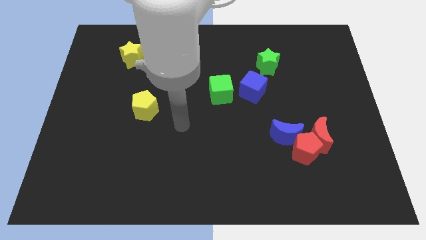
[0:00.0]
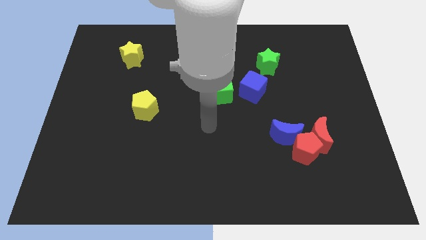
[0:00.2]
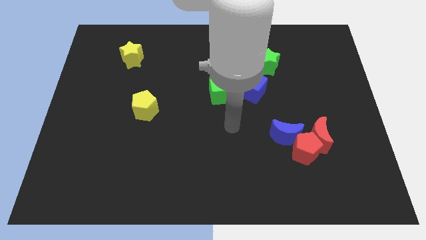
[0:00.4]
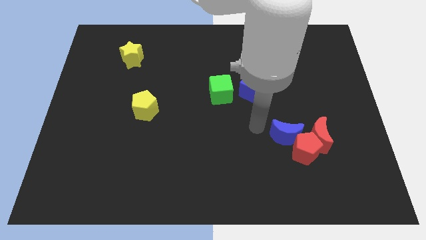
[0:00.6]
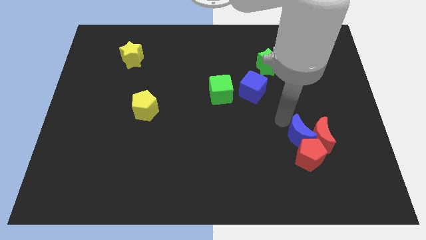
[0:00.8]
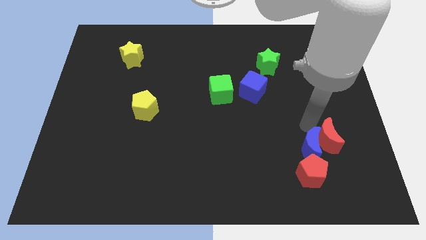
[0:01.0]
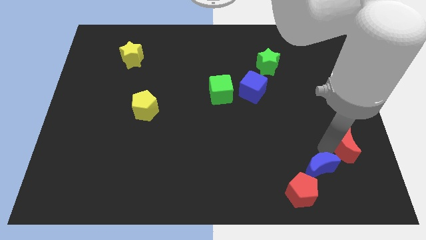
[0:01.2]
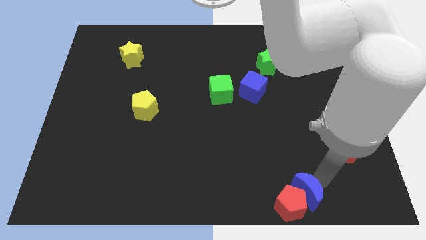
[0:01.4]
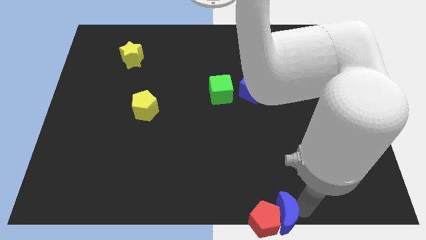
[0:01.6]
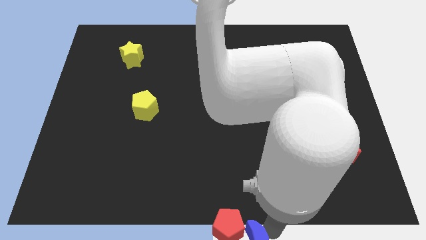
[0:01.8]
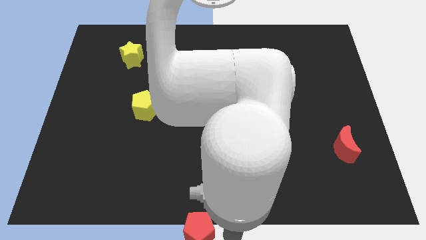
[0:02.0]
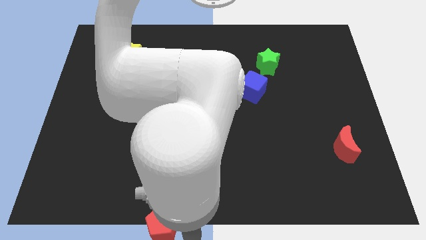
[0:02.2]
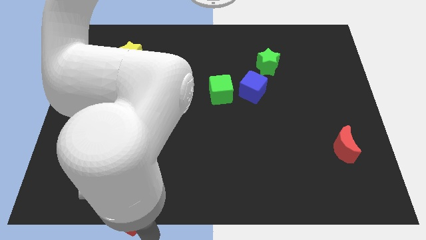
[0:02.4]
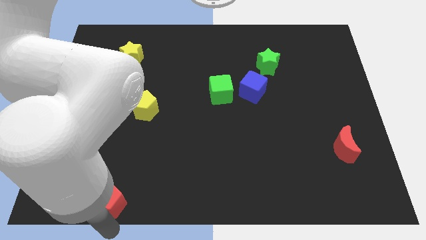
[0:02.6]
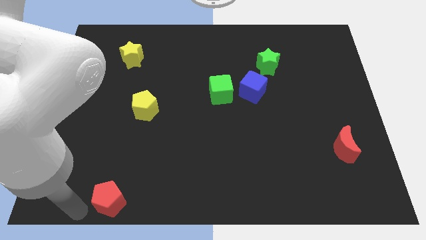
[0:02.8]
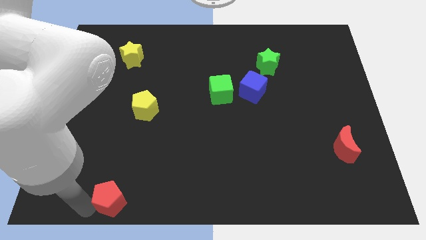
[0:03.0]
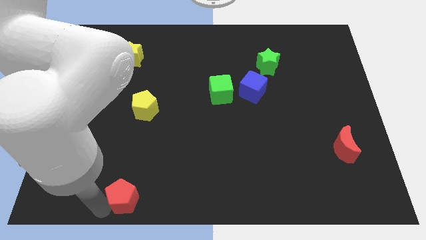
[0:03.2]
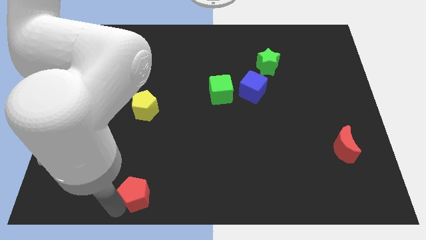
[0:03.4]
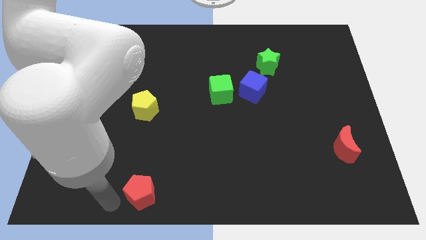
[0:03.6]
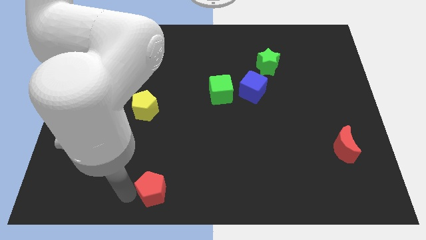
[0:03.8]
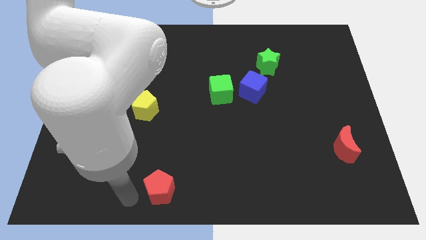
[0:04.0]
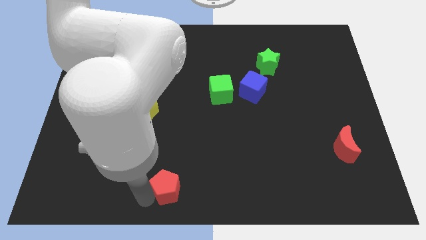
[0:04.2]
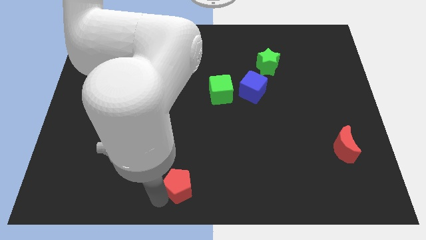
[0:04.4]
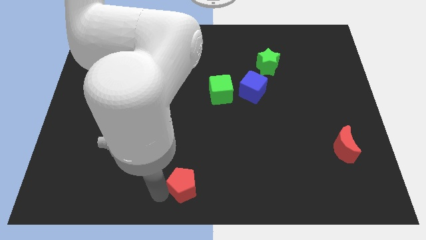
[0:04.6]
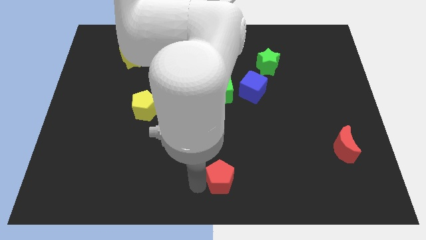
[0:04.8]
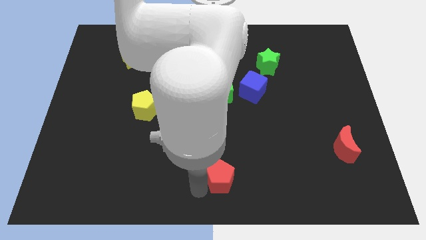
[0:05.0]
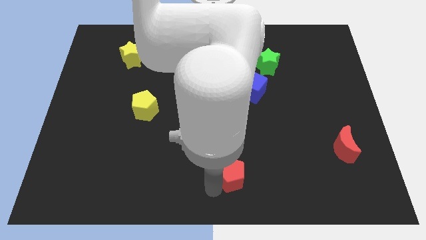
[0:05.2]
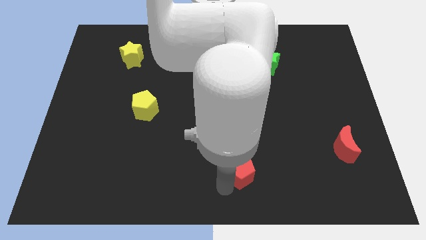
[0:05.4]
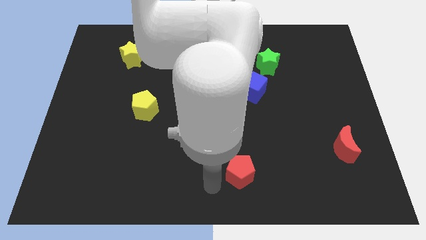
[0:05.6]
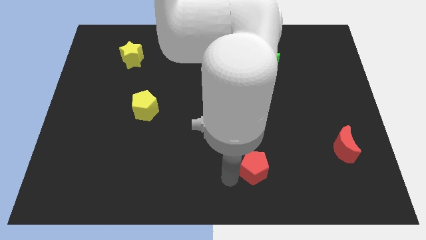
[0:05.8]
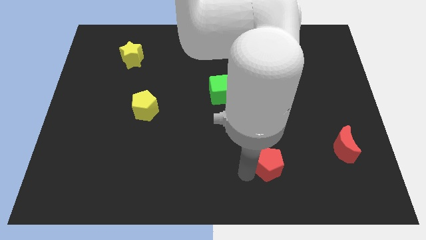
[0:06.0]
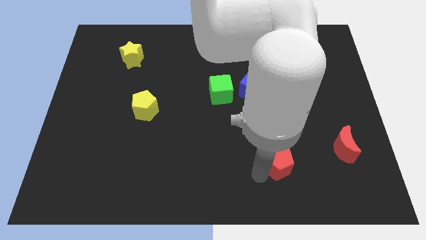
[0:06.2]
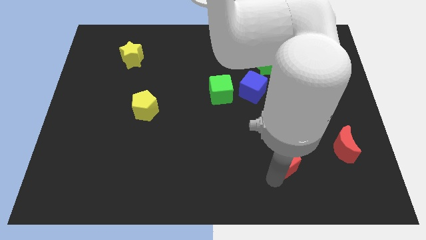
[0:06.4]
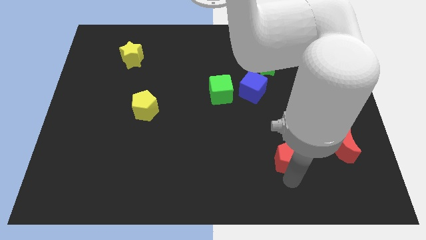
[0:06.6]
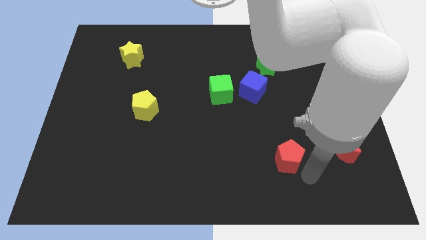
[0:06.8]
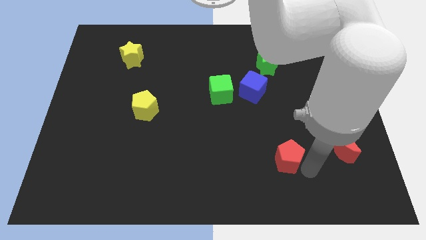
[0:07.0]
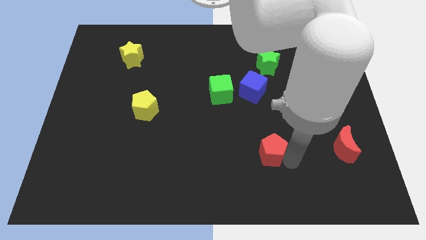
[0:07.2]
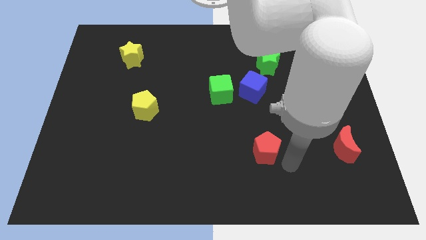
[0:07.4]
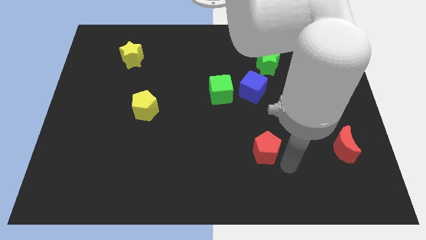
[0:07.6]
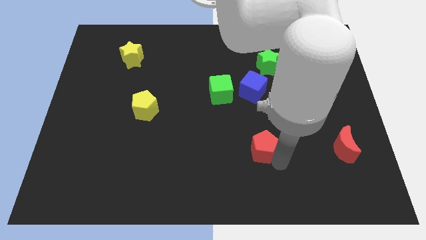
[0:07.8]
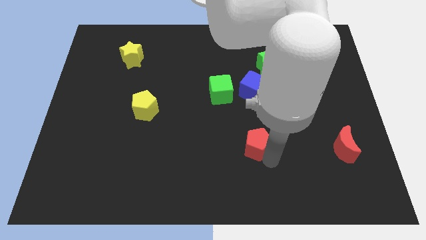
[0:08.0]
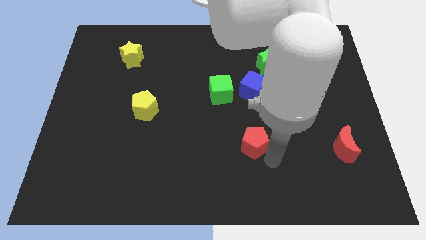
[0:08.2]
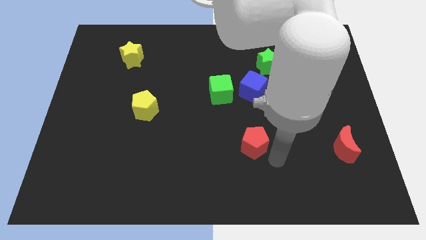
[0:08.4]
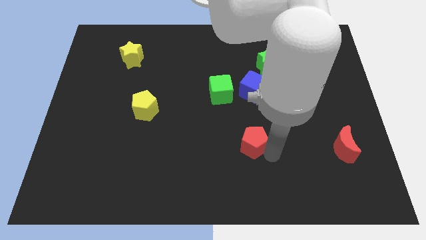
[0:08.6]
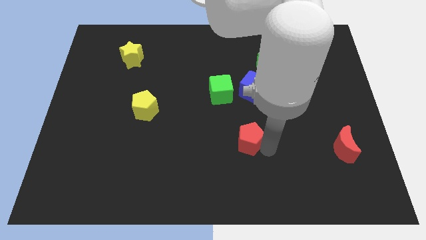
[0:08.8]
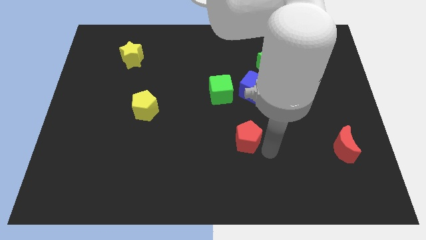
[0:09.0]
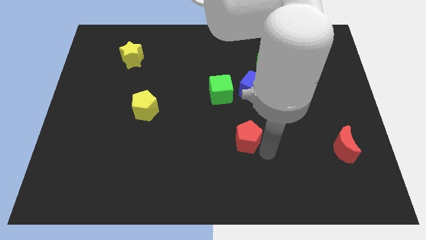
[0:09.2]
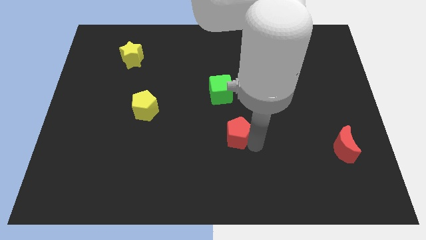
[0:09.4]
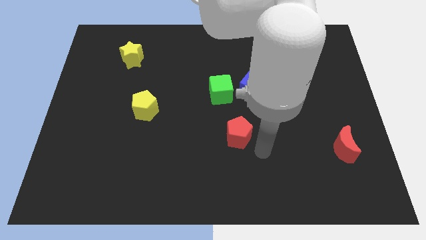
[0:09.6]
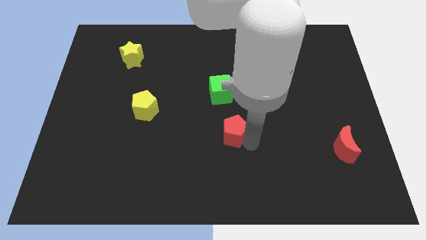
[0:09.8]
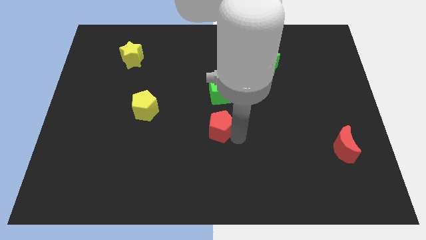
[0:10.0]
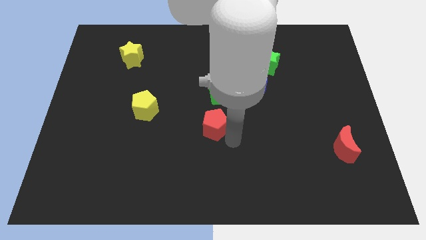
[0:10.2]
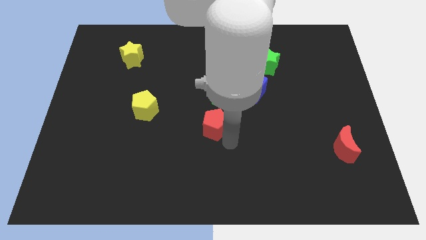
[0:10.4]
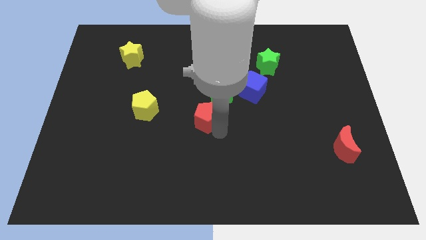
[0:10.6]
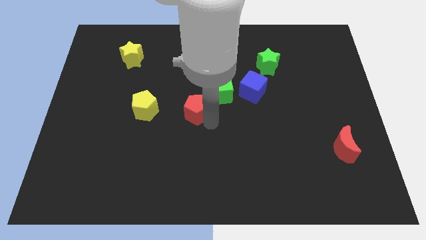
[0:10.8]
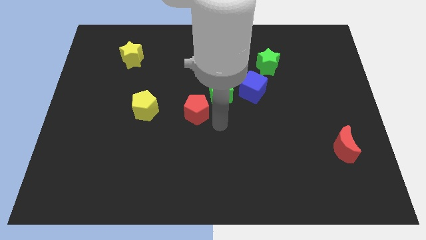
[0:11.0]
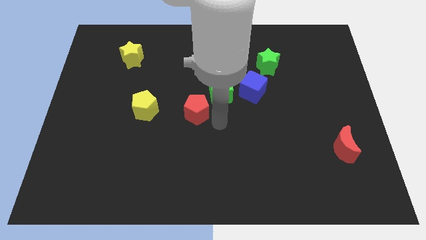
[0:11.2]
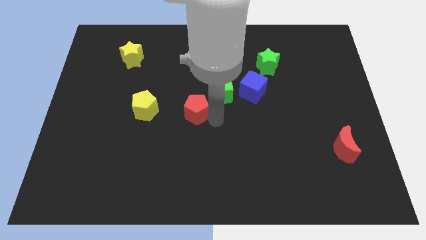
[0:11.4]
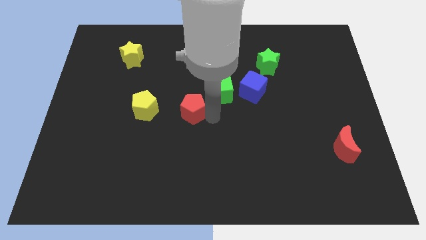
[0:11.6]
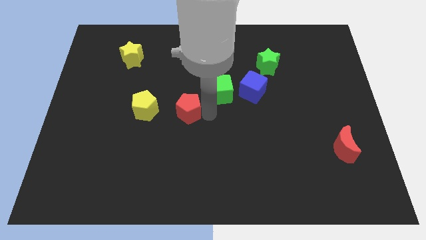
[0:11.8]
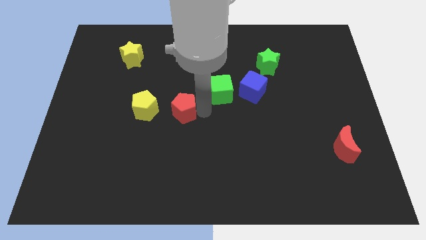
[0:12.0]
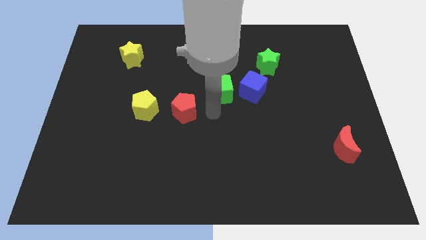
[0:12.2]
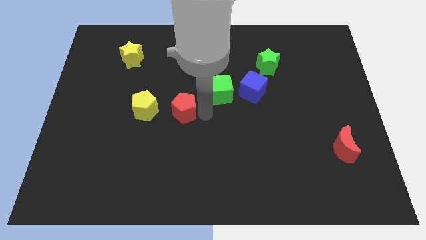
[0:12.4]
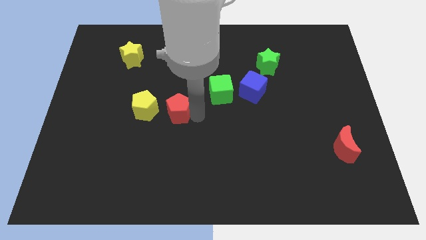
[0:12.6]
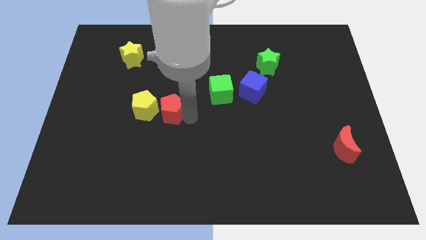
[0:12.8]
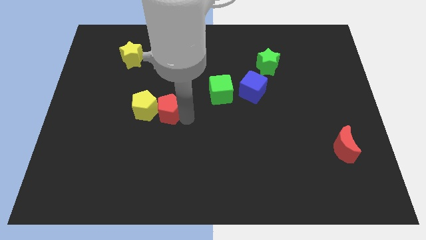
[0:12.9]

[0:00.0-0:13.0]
move the red pentagon to the yellow pentagon
